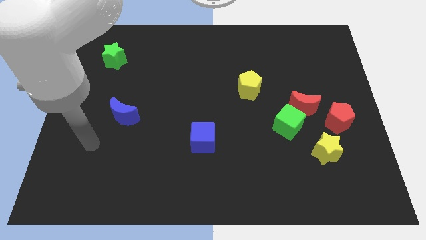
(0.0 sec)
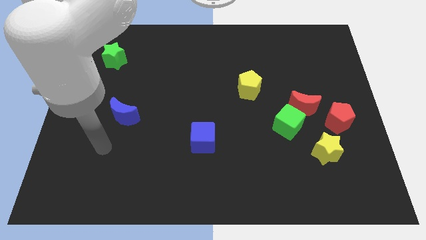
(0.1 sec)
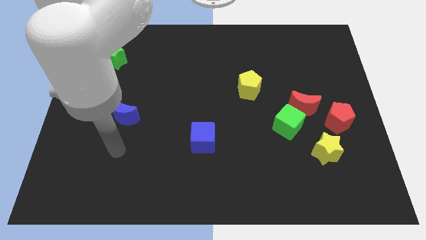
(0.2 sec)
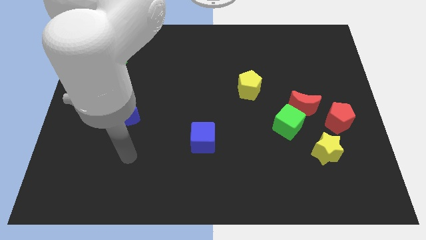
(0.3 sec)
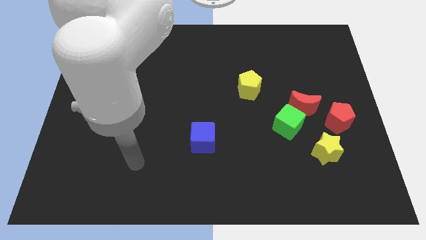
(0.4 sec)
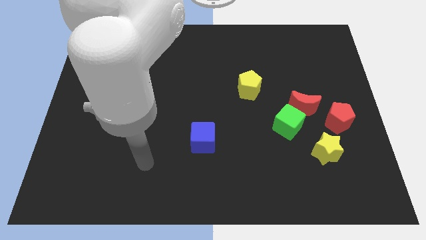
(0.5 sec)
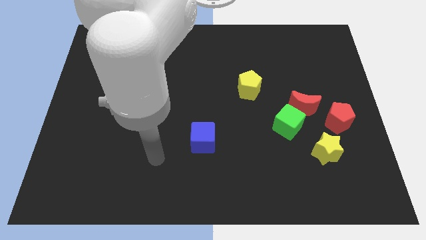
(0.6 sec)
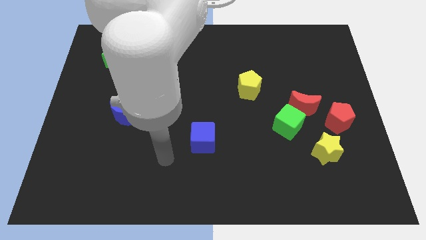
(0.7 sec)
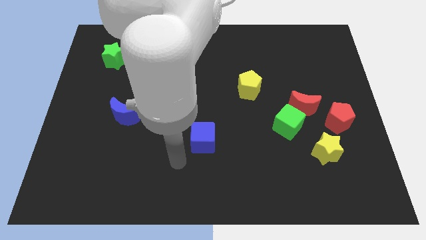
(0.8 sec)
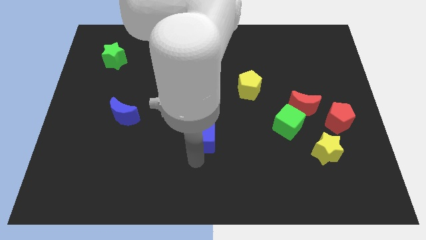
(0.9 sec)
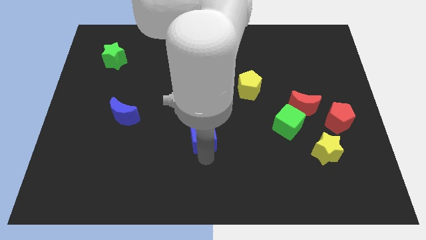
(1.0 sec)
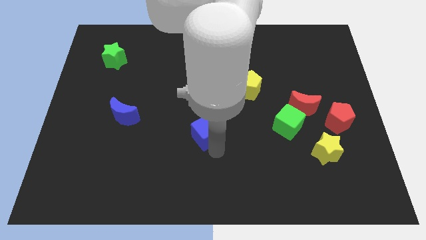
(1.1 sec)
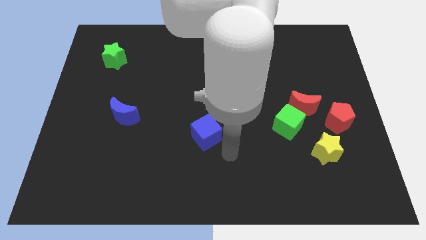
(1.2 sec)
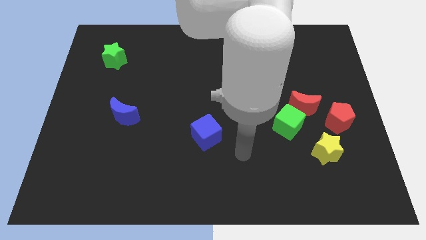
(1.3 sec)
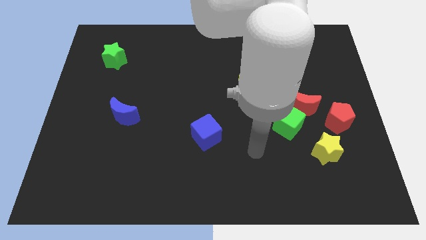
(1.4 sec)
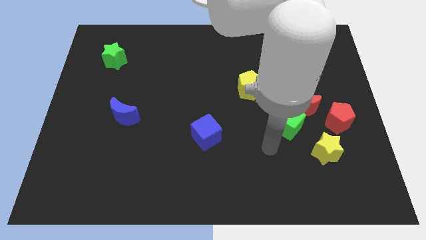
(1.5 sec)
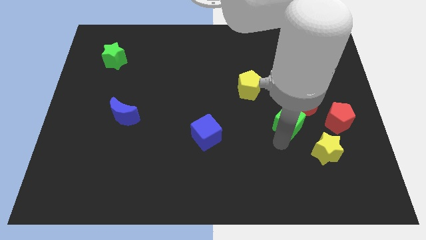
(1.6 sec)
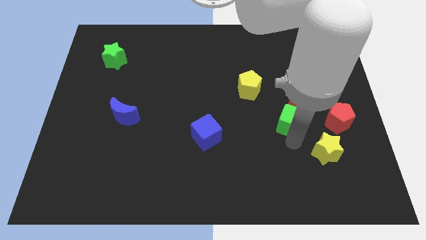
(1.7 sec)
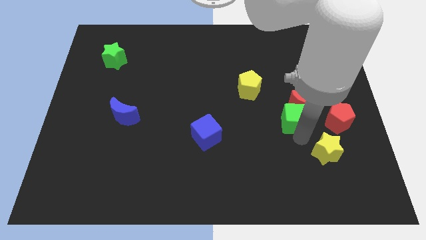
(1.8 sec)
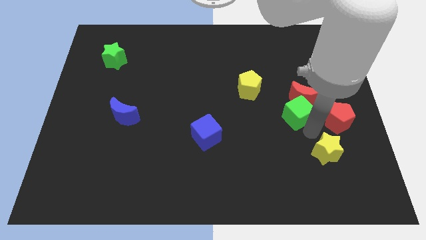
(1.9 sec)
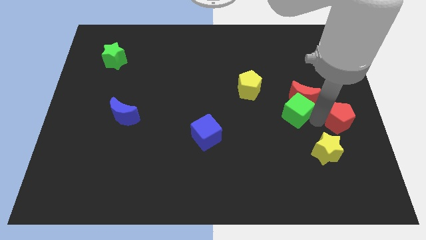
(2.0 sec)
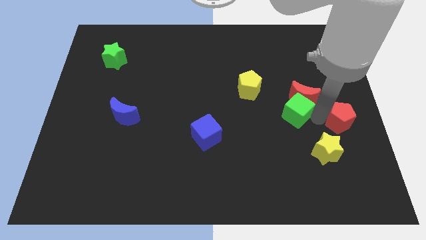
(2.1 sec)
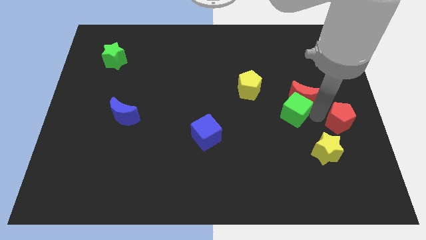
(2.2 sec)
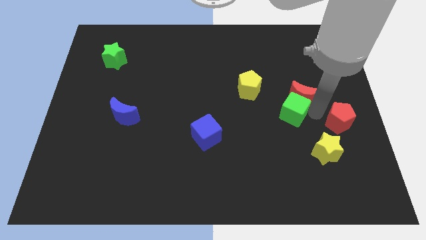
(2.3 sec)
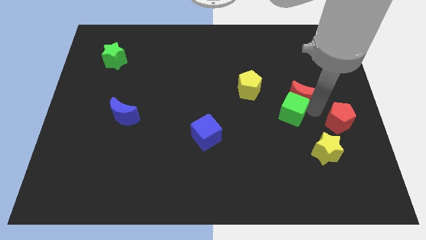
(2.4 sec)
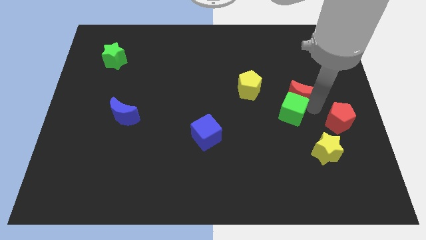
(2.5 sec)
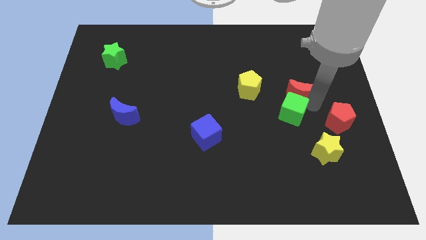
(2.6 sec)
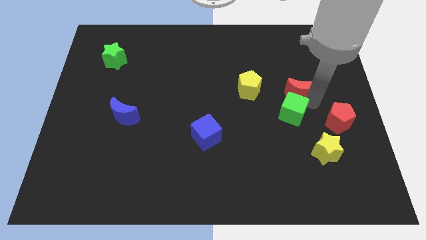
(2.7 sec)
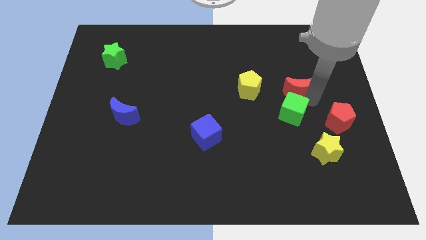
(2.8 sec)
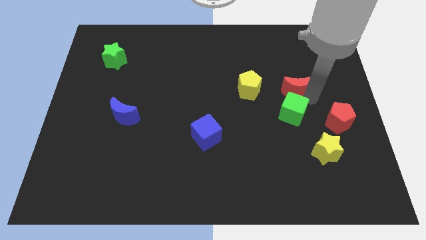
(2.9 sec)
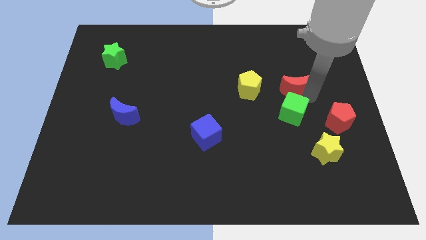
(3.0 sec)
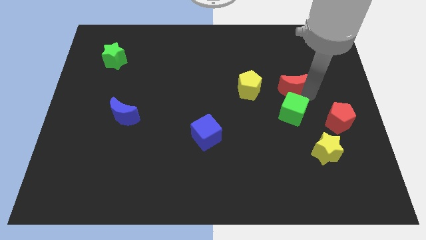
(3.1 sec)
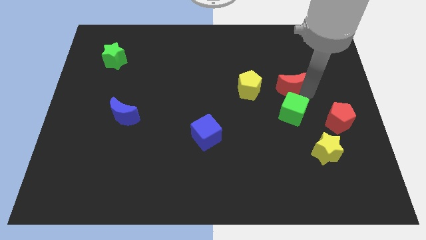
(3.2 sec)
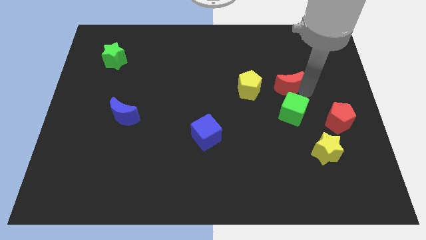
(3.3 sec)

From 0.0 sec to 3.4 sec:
separate the red moon from the green cube and red pentagon

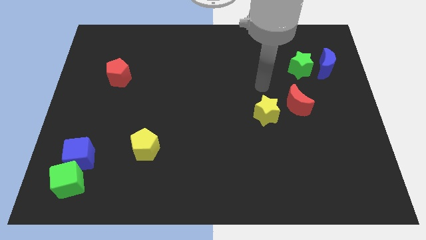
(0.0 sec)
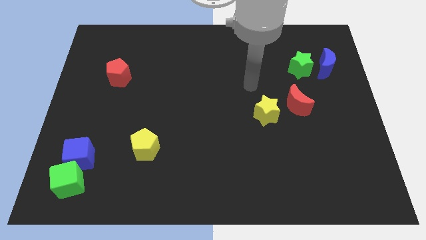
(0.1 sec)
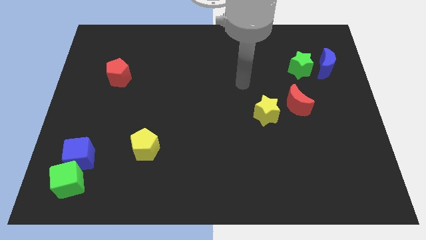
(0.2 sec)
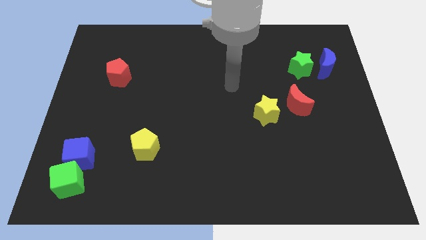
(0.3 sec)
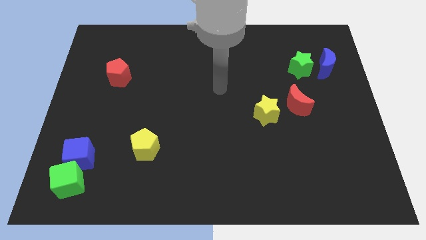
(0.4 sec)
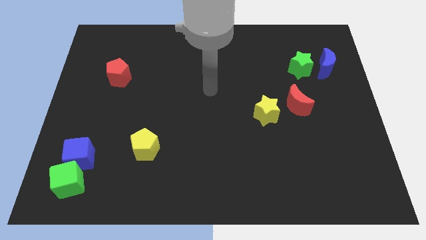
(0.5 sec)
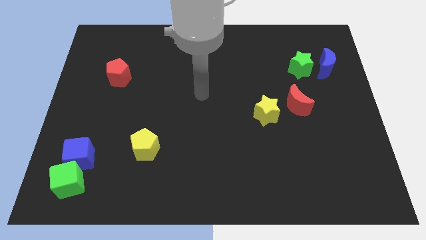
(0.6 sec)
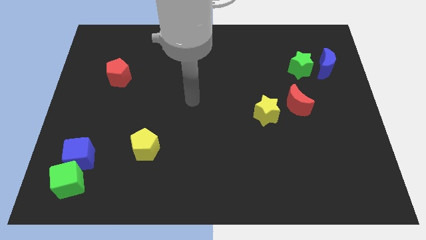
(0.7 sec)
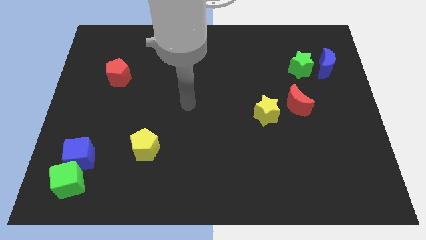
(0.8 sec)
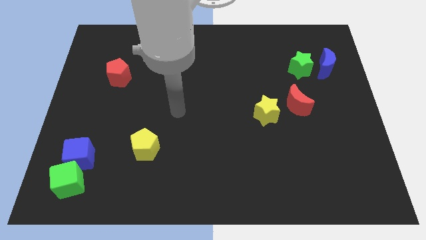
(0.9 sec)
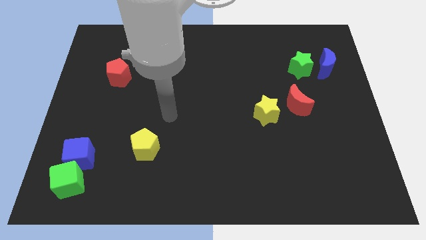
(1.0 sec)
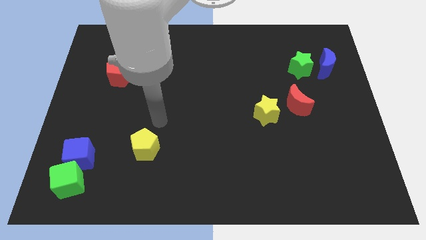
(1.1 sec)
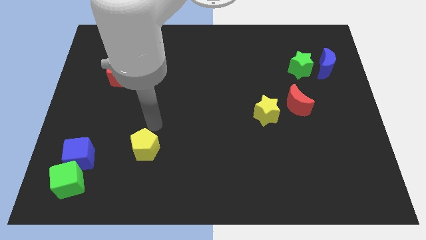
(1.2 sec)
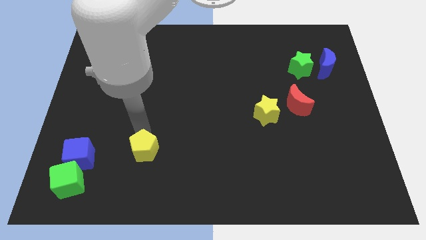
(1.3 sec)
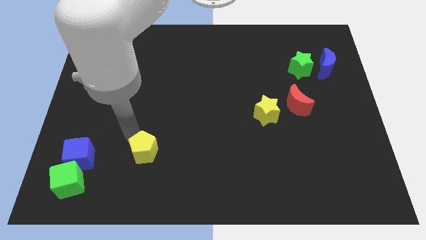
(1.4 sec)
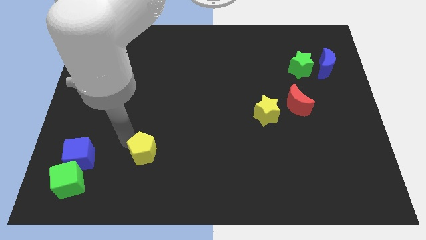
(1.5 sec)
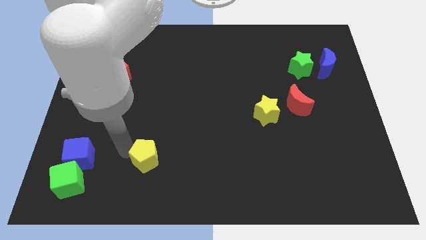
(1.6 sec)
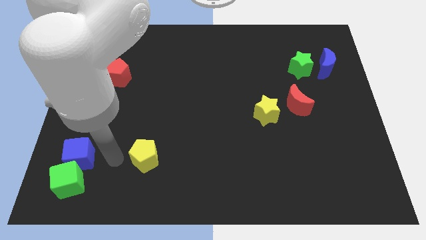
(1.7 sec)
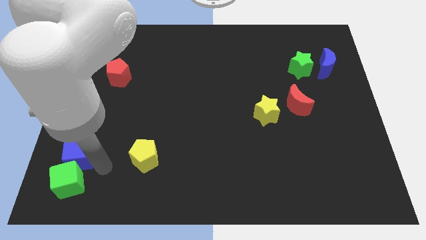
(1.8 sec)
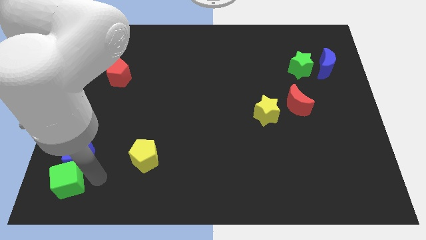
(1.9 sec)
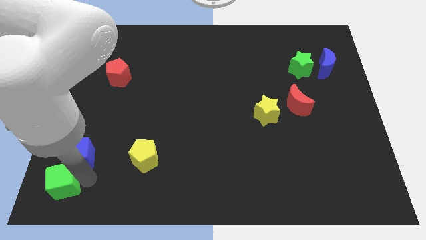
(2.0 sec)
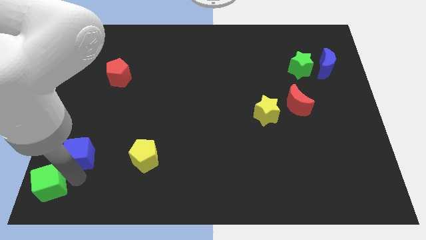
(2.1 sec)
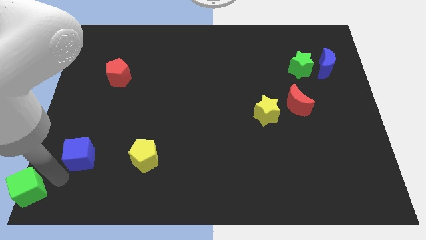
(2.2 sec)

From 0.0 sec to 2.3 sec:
move the blue cube away from the green cube

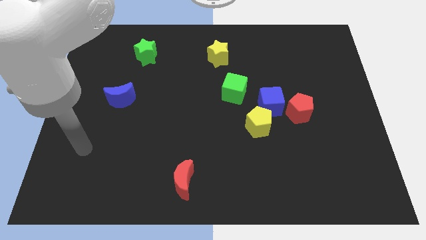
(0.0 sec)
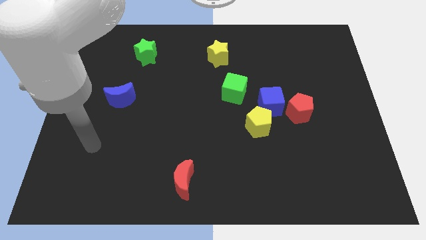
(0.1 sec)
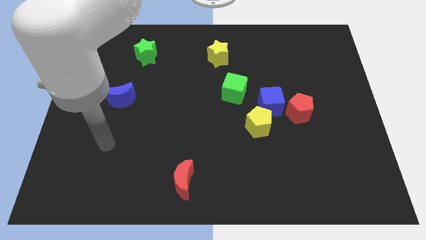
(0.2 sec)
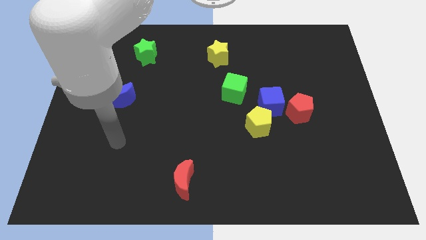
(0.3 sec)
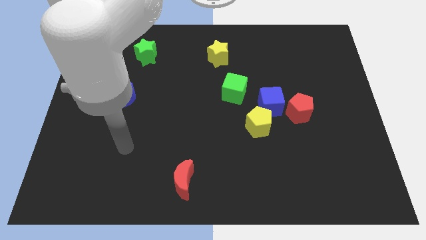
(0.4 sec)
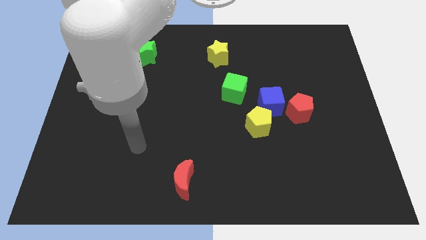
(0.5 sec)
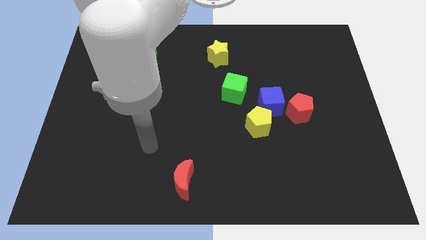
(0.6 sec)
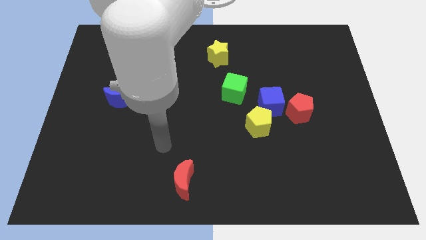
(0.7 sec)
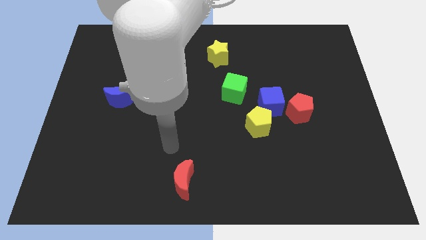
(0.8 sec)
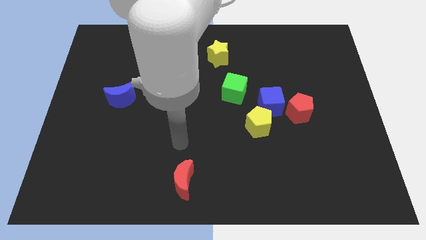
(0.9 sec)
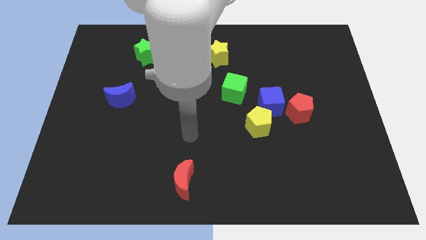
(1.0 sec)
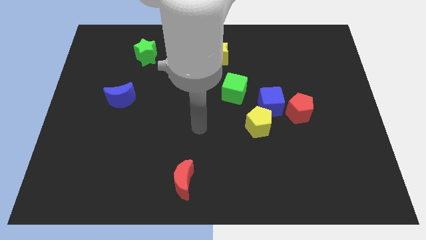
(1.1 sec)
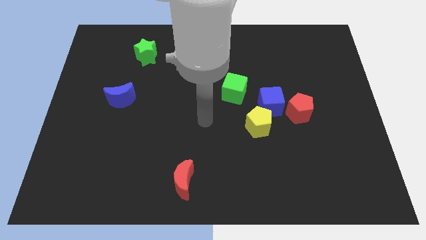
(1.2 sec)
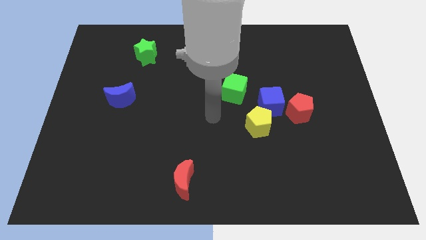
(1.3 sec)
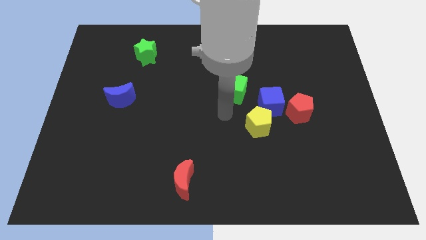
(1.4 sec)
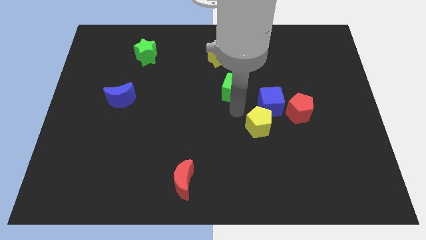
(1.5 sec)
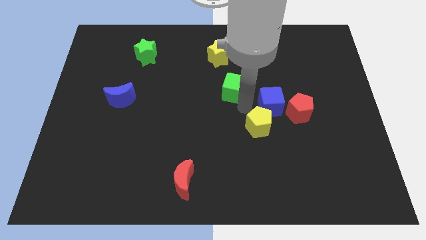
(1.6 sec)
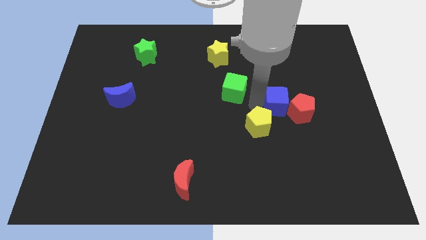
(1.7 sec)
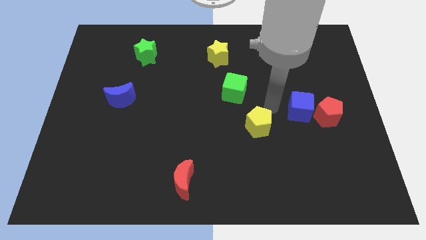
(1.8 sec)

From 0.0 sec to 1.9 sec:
pull the yellow pentagon apart from the blue cube

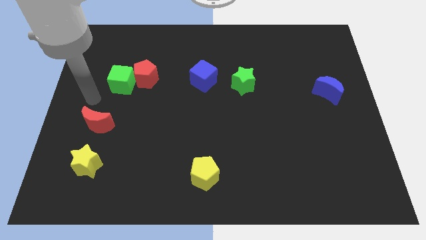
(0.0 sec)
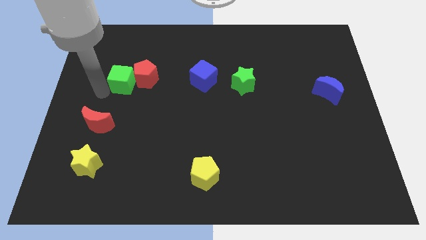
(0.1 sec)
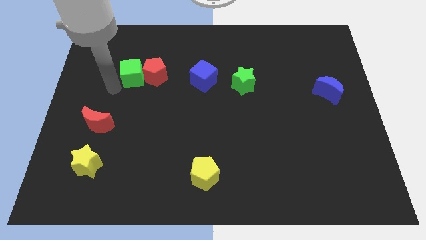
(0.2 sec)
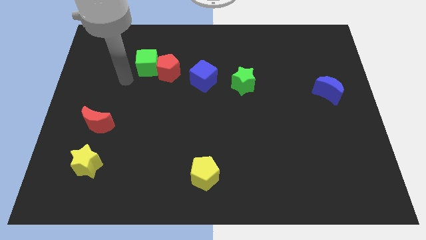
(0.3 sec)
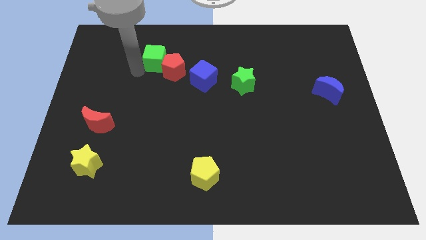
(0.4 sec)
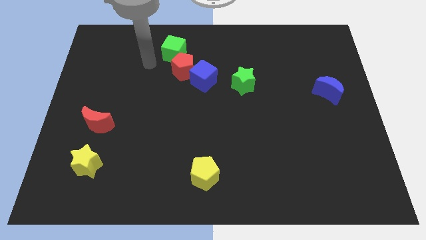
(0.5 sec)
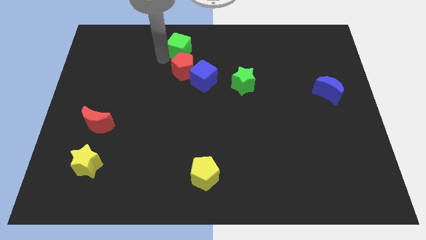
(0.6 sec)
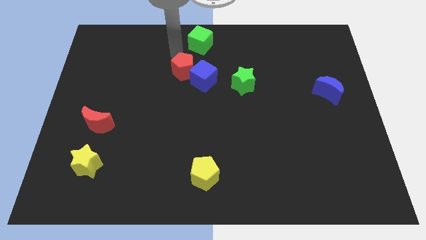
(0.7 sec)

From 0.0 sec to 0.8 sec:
pull the red pentagon apart from the green cube

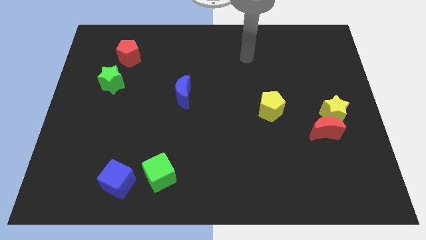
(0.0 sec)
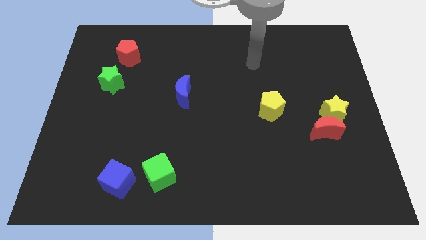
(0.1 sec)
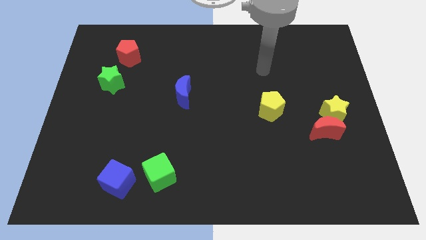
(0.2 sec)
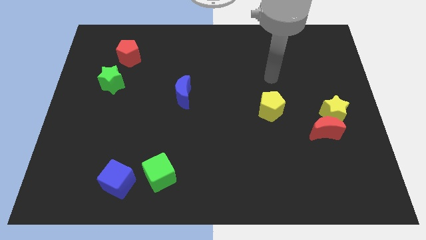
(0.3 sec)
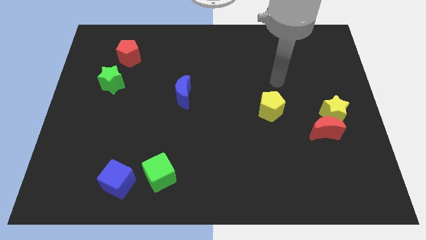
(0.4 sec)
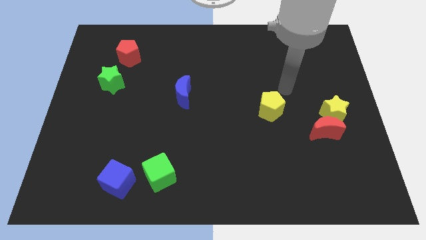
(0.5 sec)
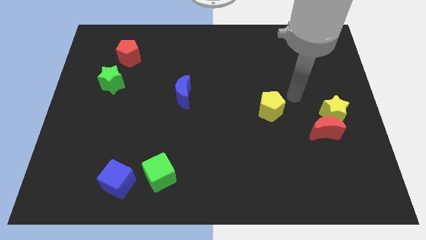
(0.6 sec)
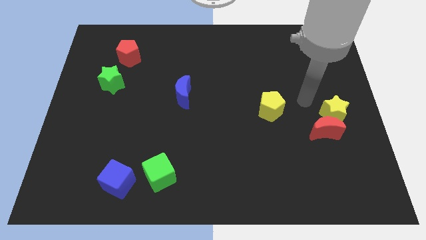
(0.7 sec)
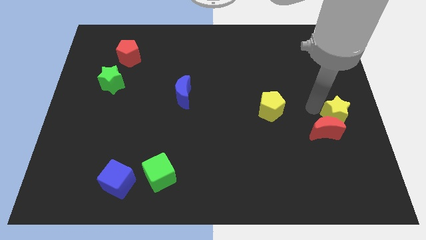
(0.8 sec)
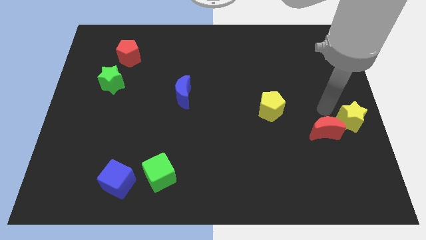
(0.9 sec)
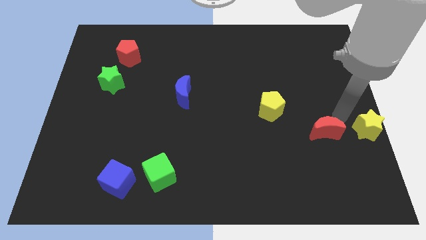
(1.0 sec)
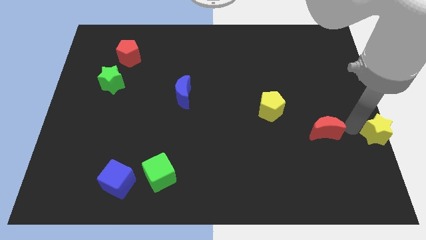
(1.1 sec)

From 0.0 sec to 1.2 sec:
move the red moon away from the yellow star
